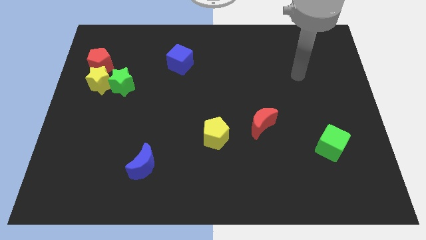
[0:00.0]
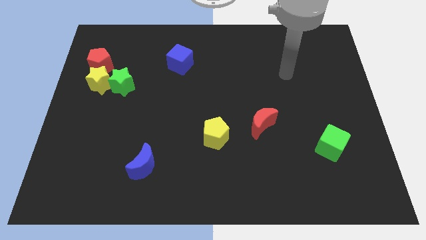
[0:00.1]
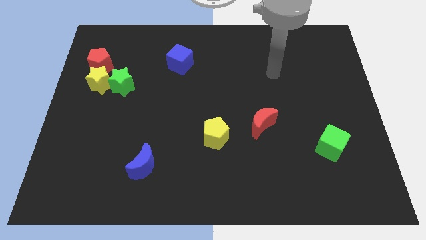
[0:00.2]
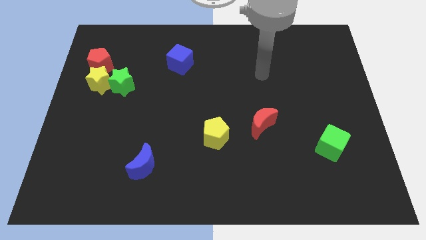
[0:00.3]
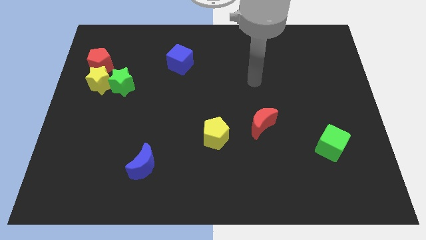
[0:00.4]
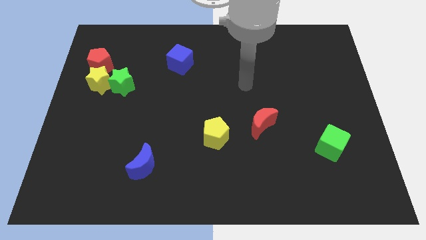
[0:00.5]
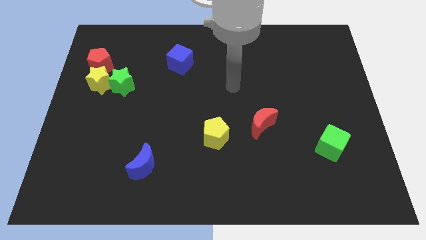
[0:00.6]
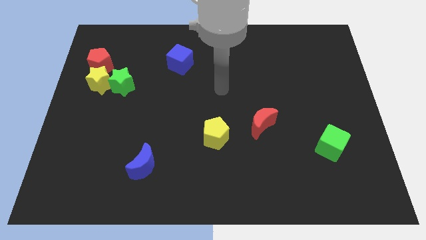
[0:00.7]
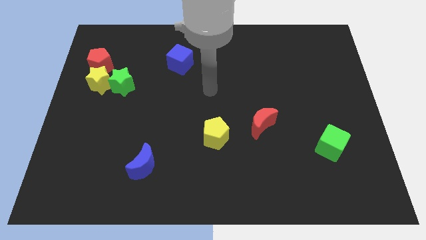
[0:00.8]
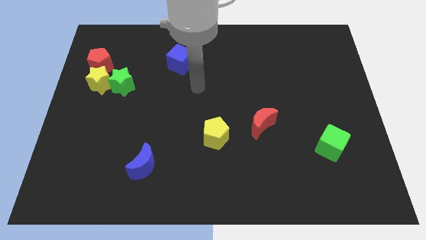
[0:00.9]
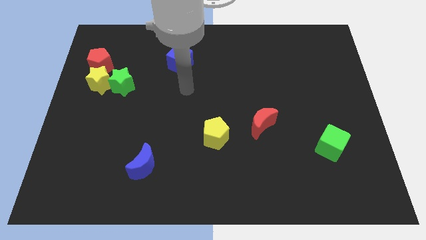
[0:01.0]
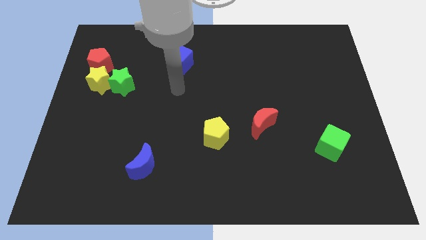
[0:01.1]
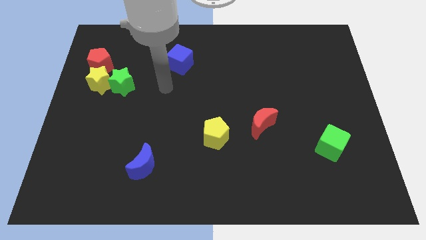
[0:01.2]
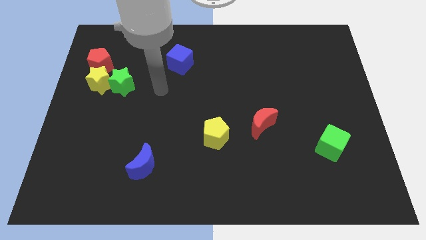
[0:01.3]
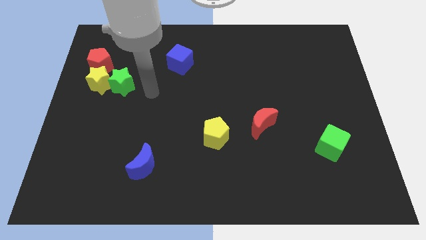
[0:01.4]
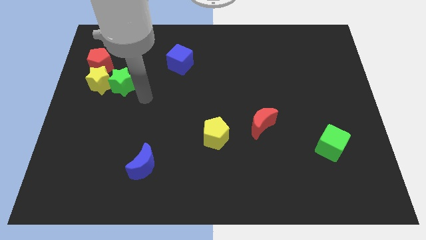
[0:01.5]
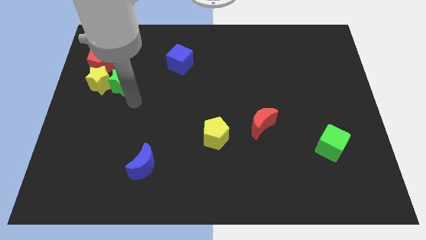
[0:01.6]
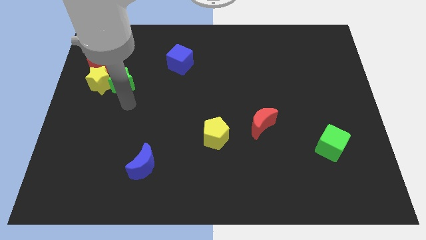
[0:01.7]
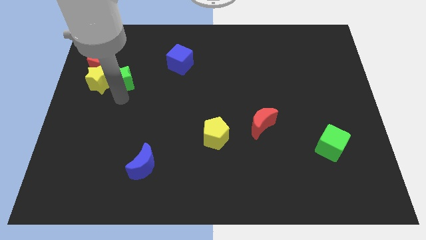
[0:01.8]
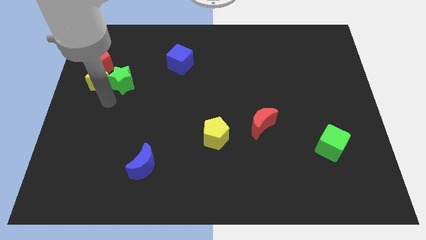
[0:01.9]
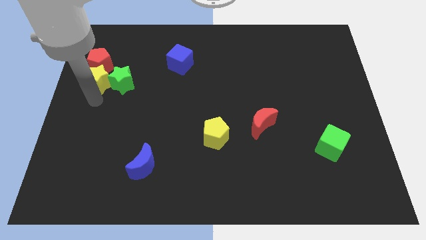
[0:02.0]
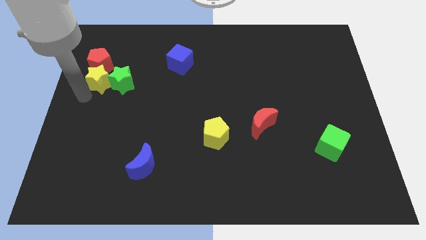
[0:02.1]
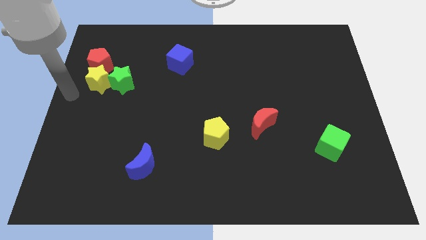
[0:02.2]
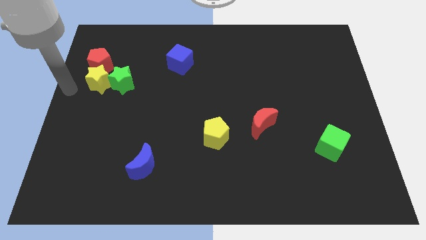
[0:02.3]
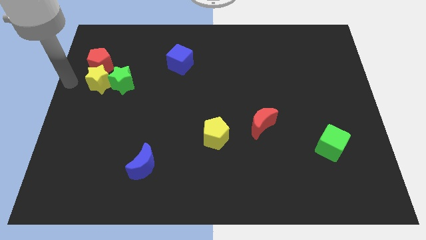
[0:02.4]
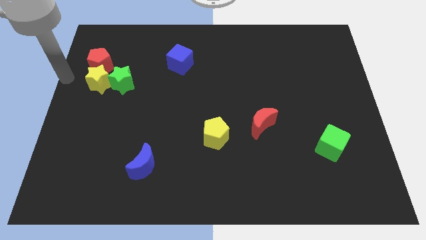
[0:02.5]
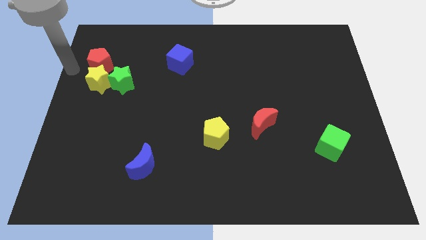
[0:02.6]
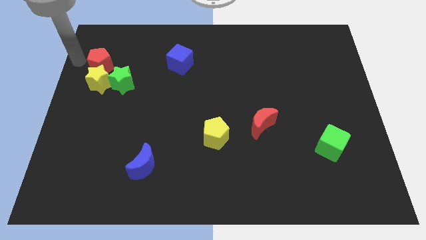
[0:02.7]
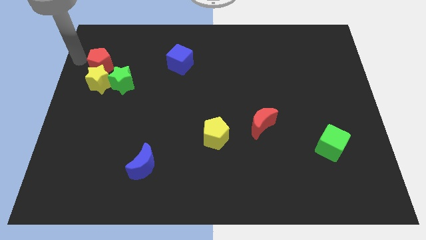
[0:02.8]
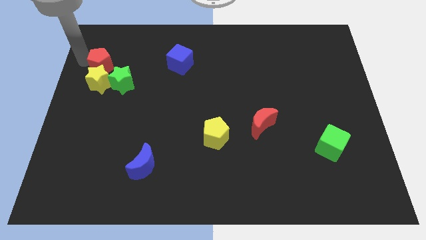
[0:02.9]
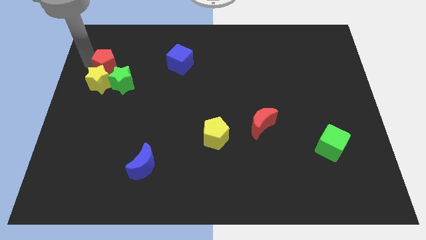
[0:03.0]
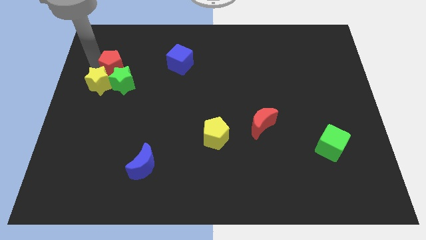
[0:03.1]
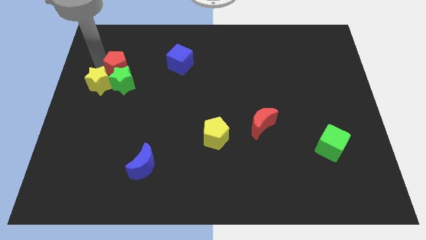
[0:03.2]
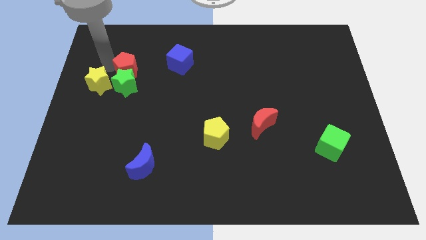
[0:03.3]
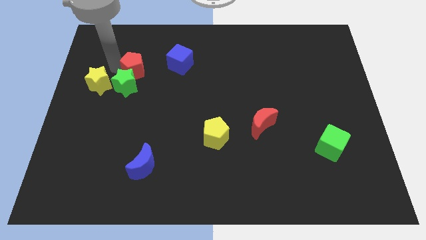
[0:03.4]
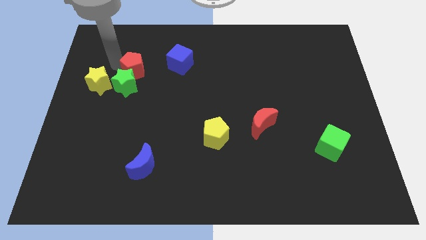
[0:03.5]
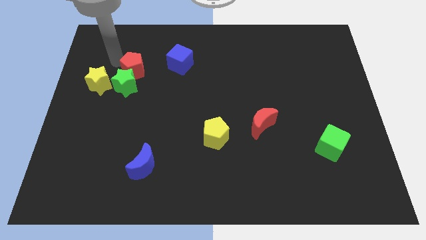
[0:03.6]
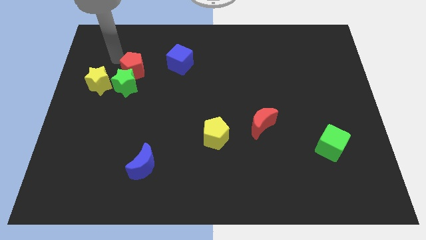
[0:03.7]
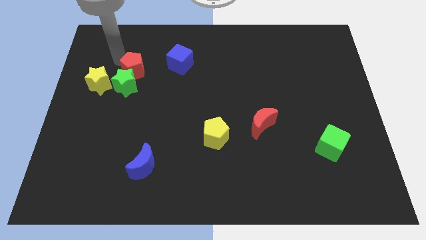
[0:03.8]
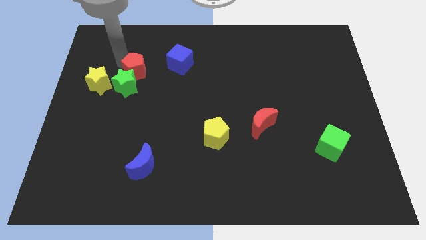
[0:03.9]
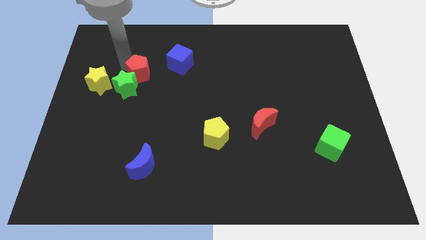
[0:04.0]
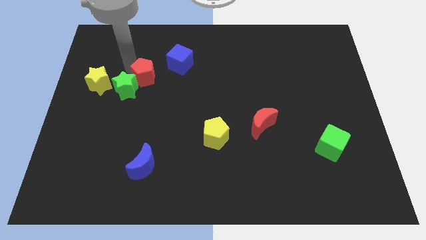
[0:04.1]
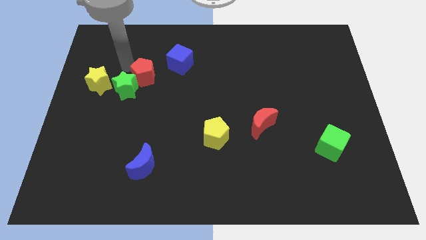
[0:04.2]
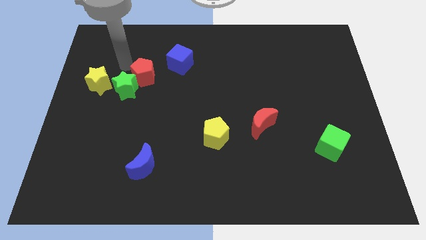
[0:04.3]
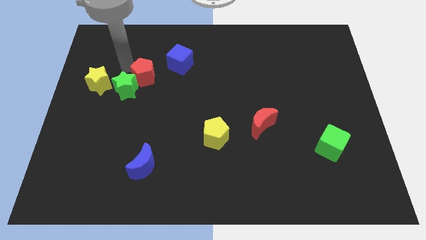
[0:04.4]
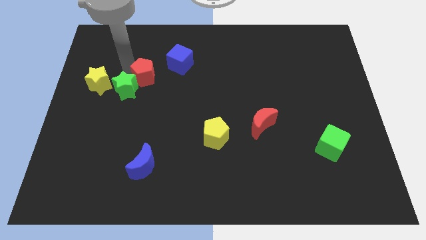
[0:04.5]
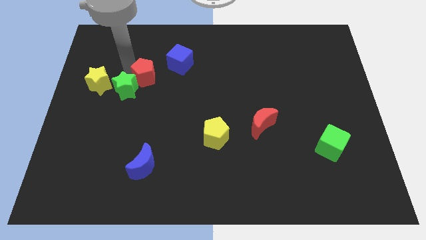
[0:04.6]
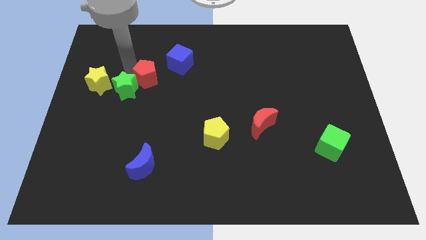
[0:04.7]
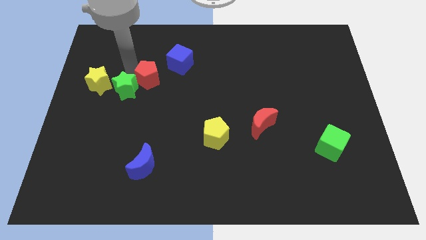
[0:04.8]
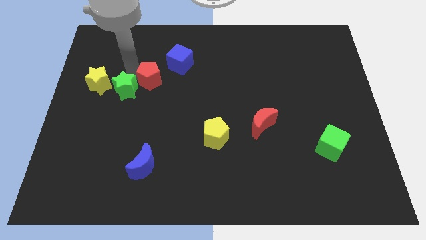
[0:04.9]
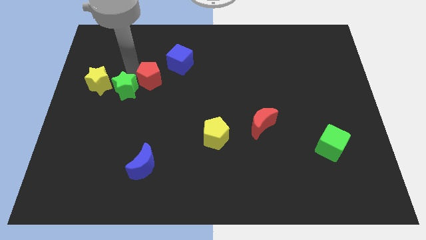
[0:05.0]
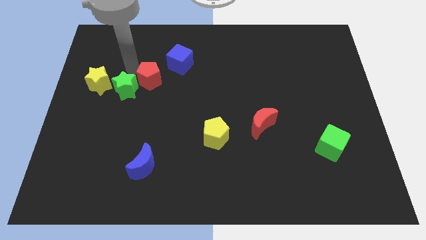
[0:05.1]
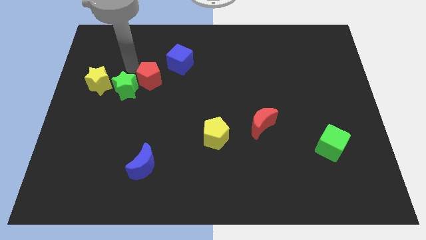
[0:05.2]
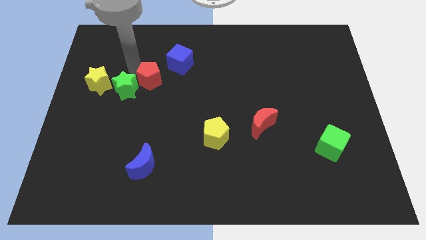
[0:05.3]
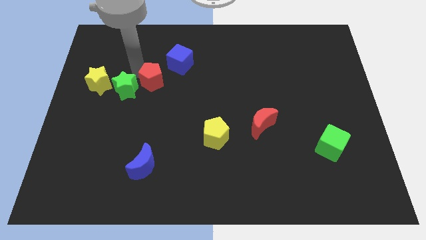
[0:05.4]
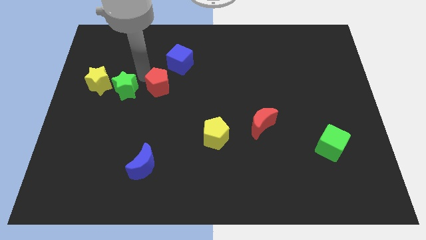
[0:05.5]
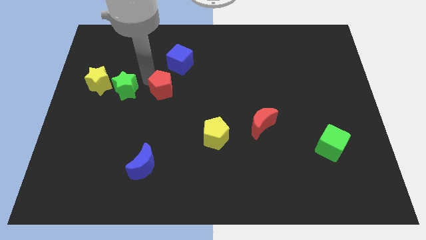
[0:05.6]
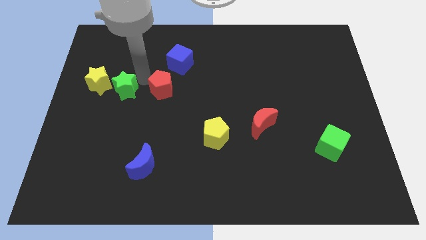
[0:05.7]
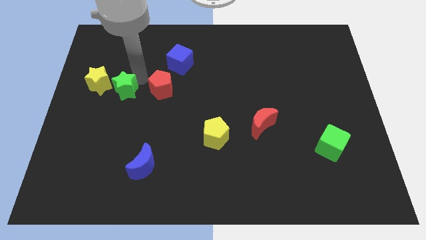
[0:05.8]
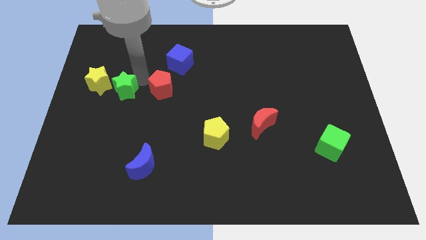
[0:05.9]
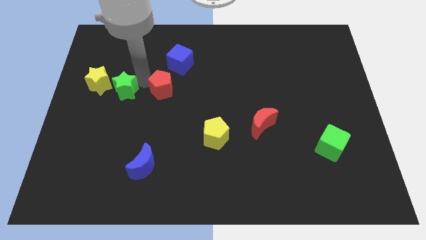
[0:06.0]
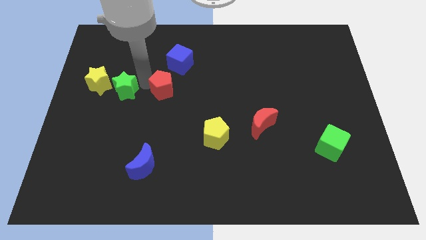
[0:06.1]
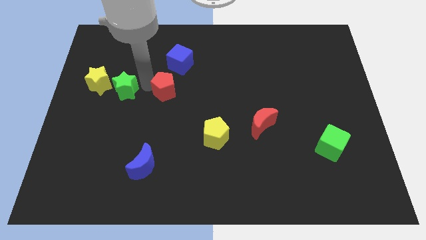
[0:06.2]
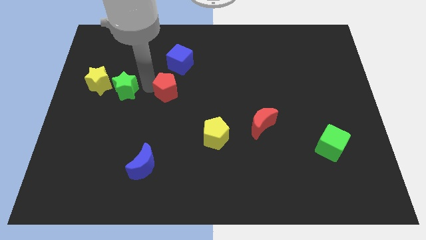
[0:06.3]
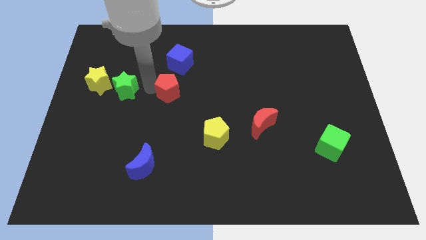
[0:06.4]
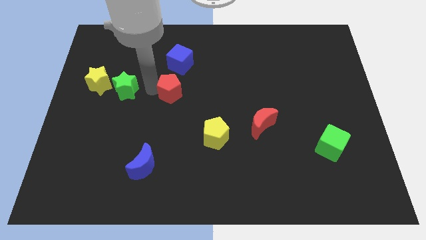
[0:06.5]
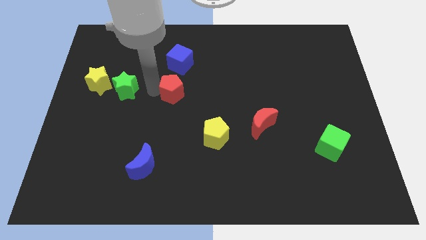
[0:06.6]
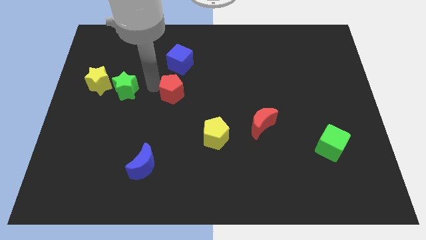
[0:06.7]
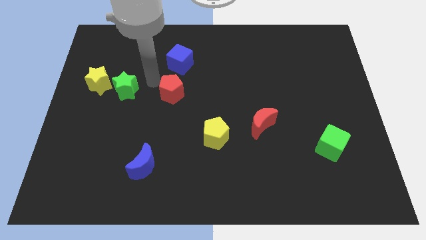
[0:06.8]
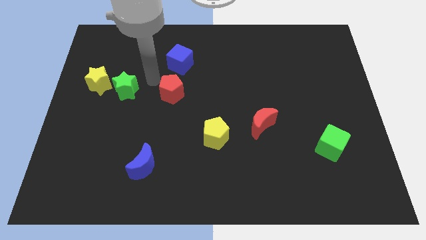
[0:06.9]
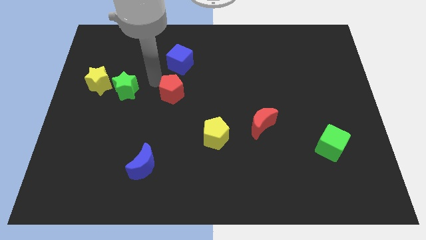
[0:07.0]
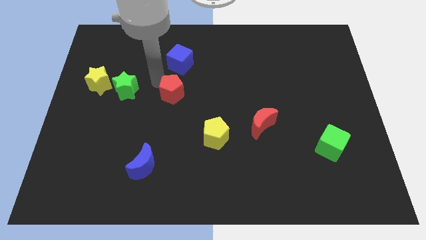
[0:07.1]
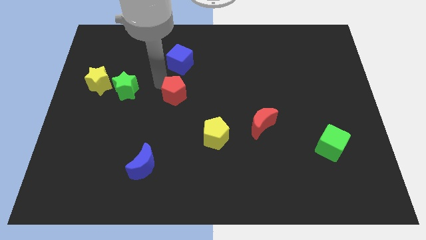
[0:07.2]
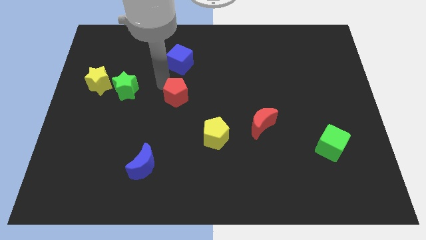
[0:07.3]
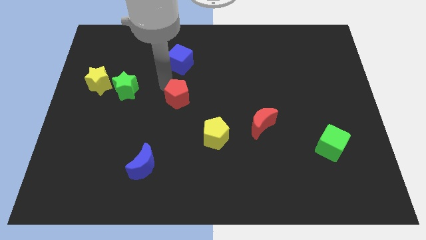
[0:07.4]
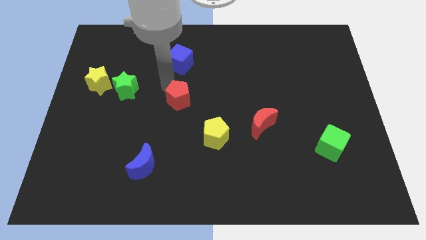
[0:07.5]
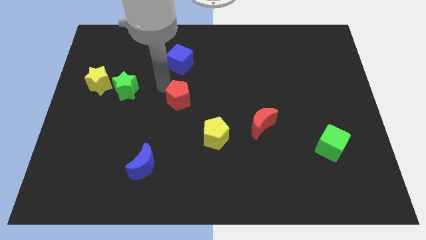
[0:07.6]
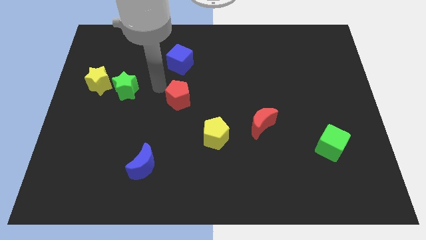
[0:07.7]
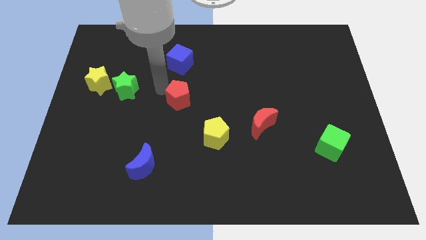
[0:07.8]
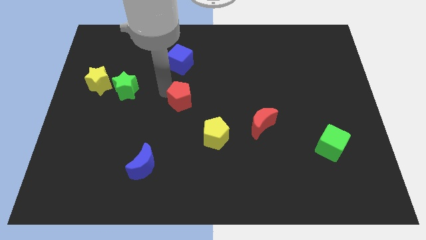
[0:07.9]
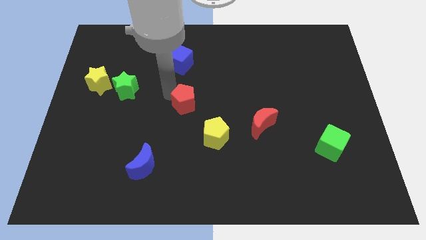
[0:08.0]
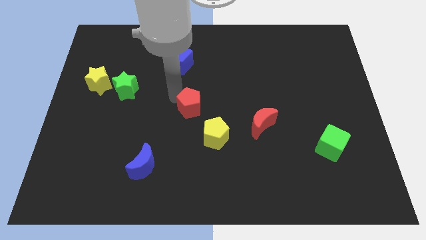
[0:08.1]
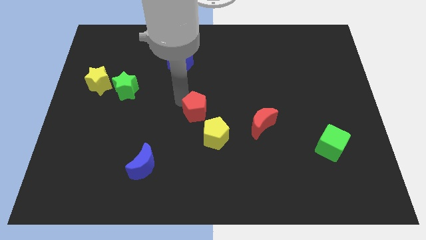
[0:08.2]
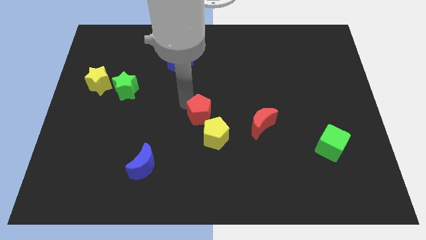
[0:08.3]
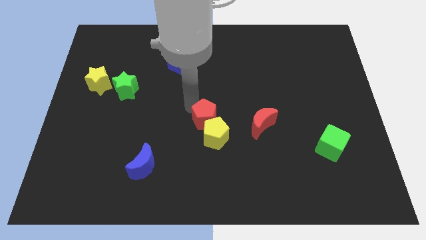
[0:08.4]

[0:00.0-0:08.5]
push the red pentagon close to the yellow pentagon
